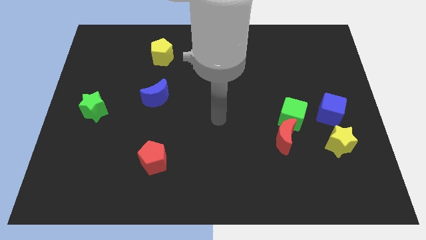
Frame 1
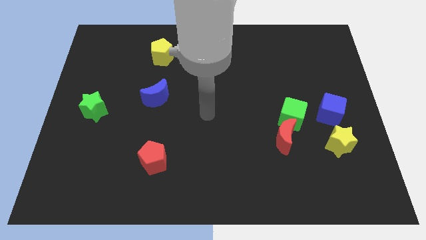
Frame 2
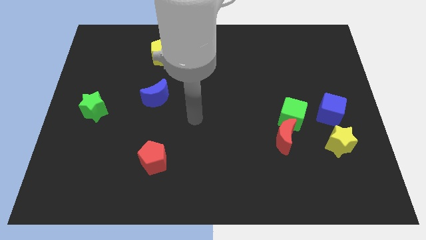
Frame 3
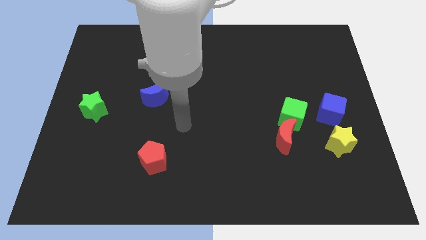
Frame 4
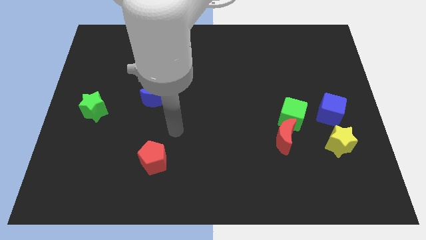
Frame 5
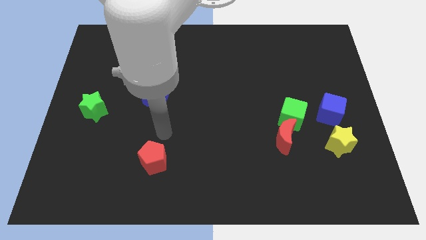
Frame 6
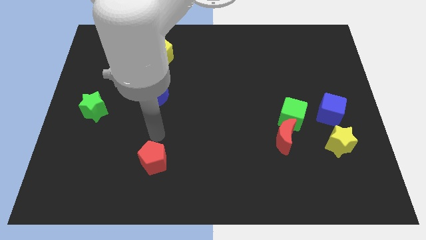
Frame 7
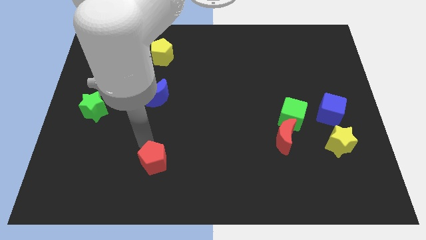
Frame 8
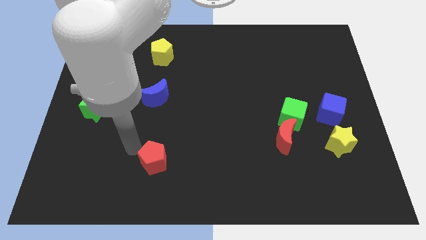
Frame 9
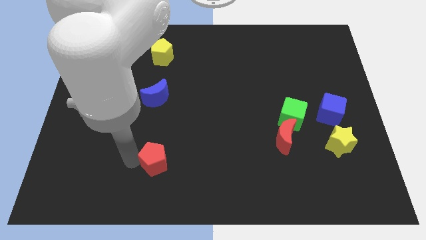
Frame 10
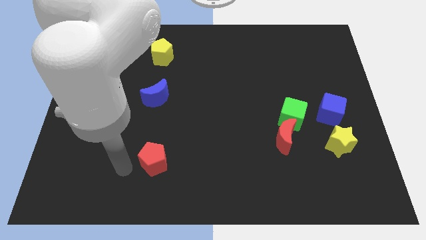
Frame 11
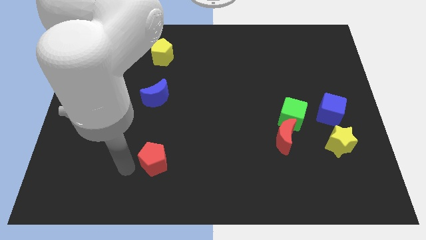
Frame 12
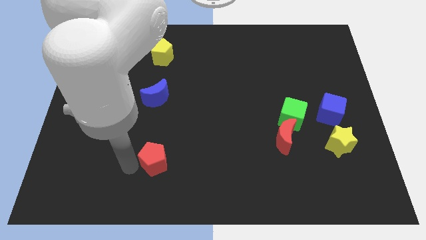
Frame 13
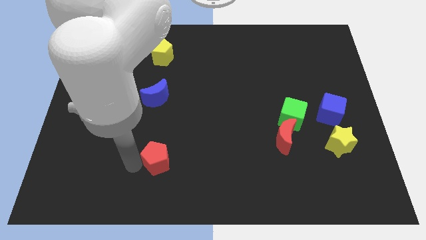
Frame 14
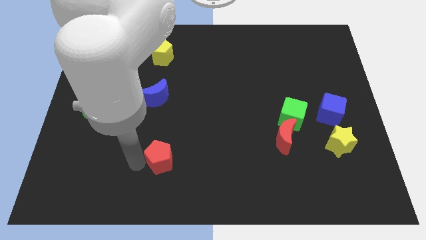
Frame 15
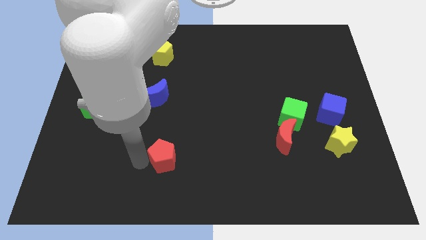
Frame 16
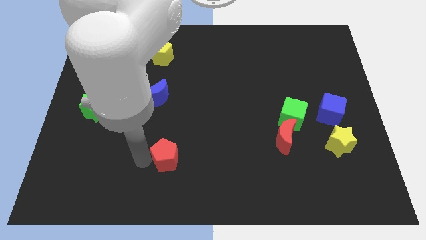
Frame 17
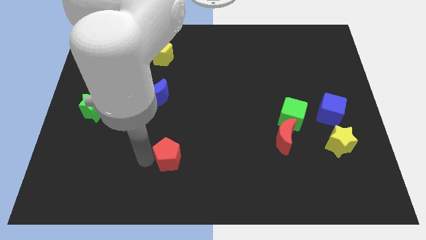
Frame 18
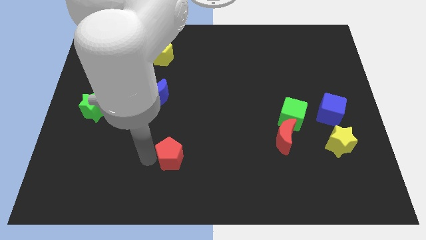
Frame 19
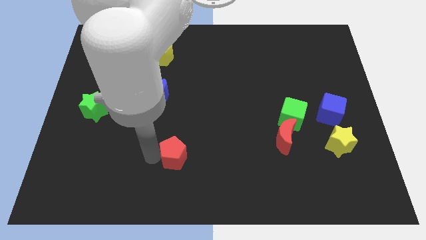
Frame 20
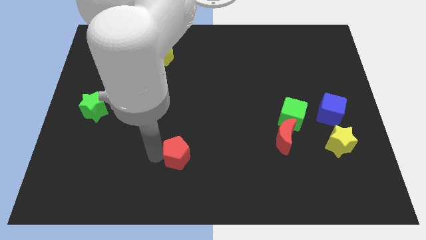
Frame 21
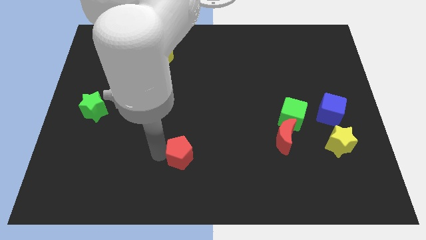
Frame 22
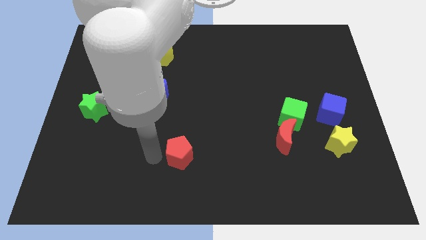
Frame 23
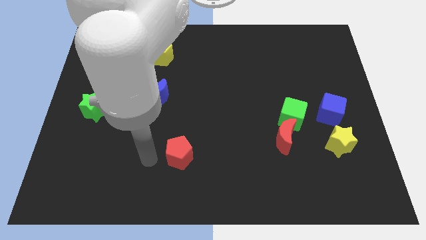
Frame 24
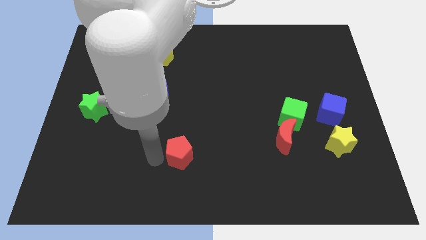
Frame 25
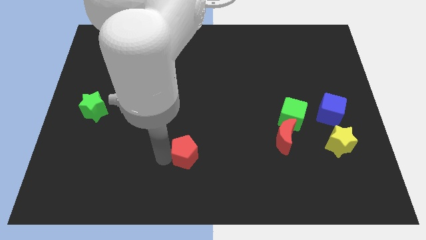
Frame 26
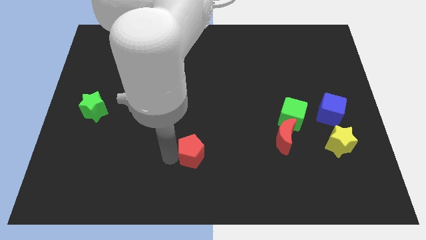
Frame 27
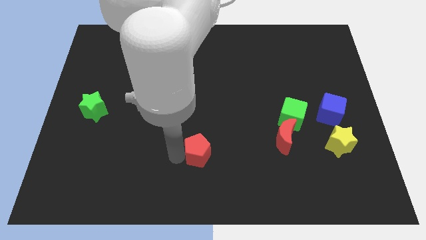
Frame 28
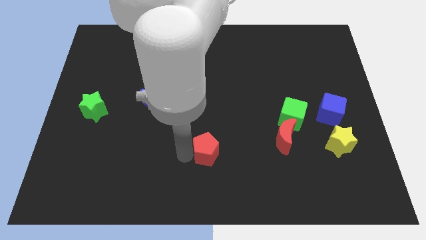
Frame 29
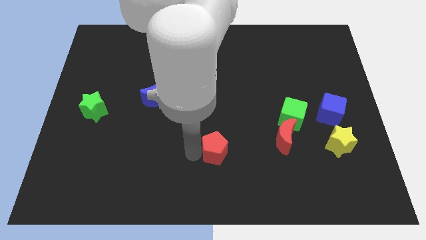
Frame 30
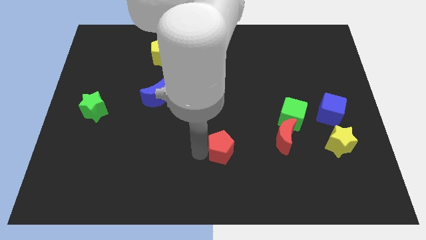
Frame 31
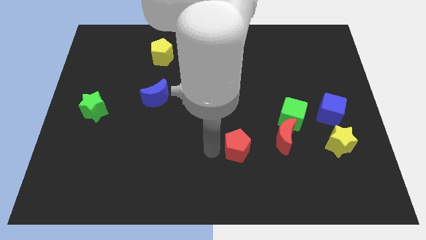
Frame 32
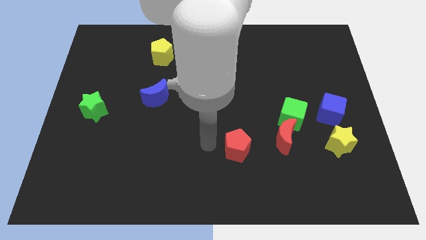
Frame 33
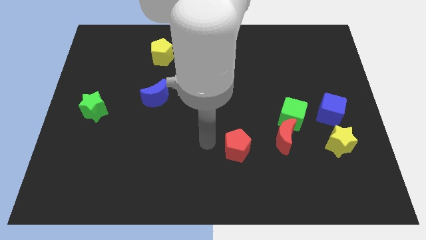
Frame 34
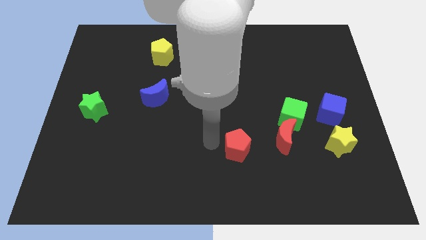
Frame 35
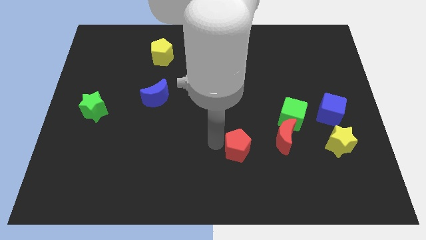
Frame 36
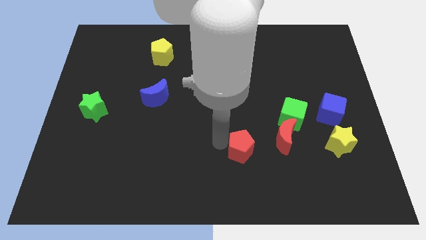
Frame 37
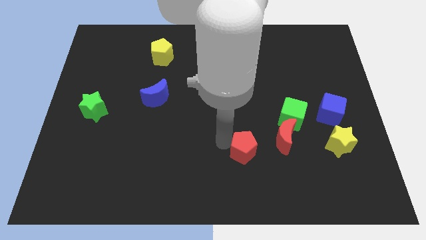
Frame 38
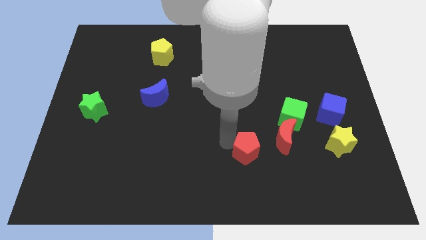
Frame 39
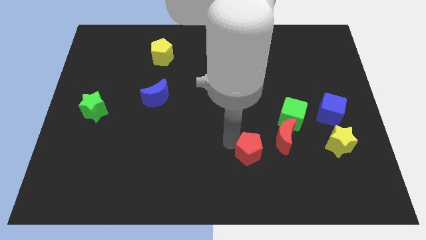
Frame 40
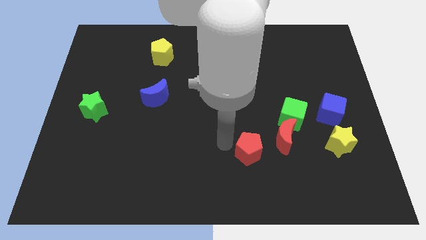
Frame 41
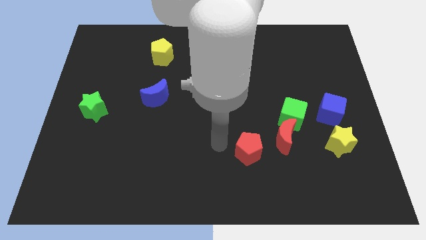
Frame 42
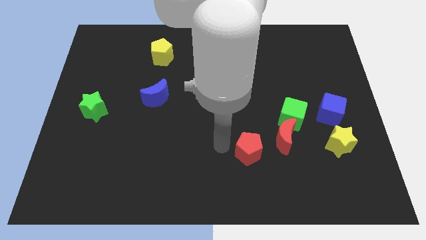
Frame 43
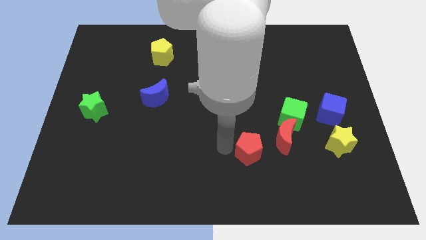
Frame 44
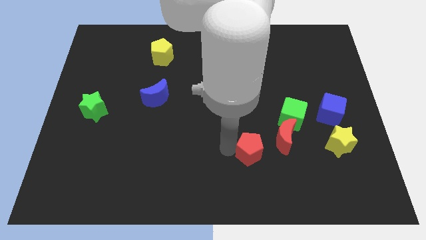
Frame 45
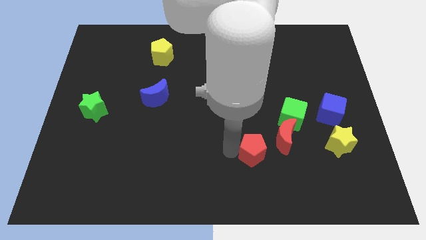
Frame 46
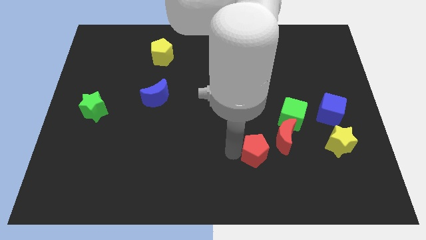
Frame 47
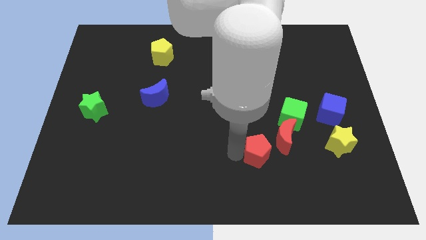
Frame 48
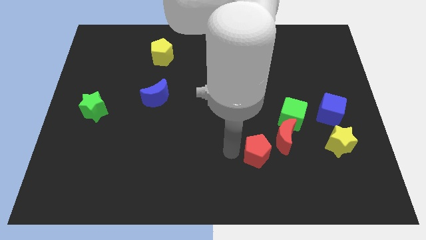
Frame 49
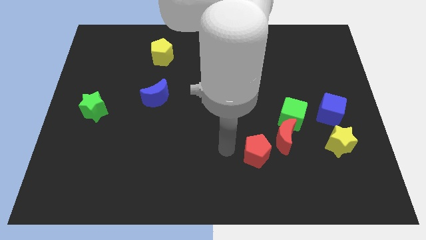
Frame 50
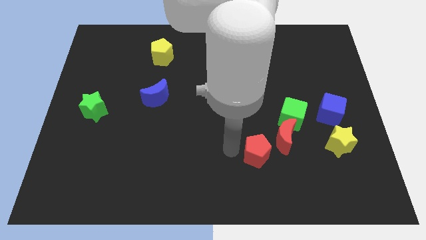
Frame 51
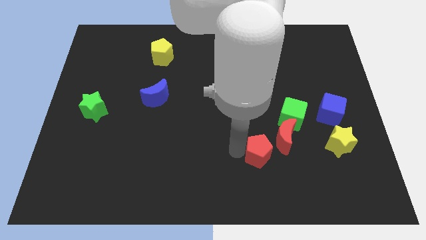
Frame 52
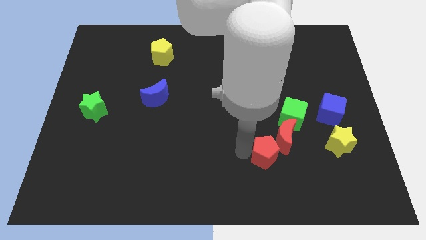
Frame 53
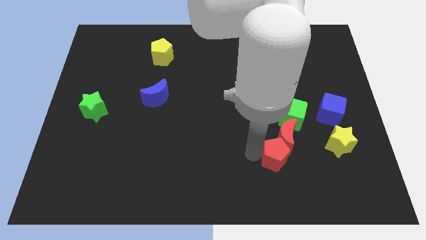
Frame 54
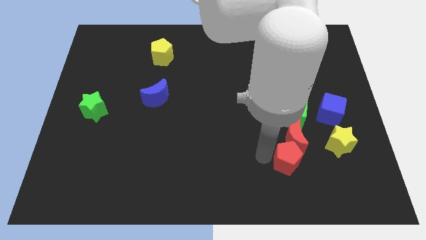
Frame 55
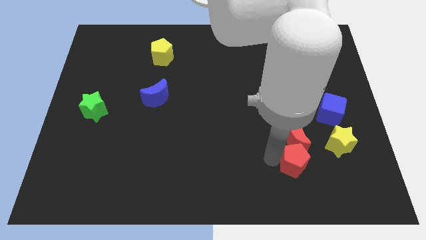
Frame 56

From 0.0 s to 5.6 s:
push the red pentagon to the bottom right of the red moon

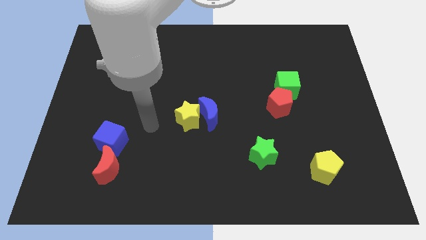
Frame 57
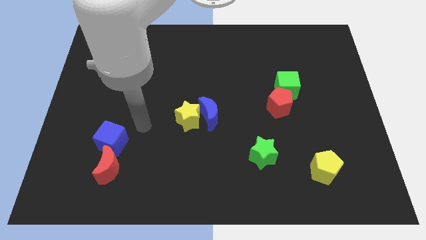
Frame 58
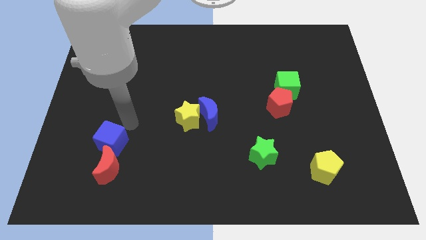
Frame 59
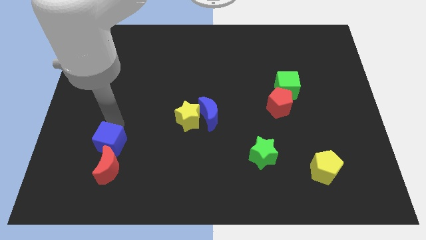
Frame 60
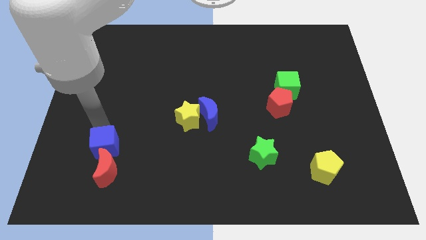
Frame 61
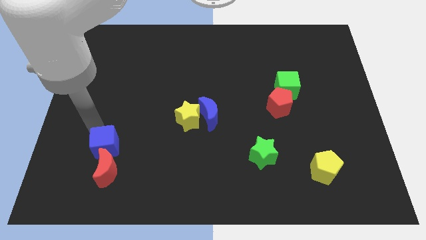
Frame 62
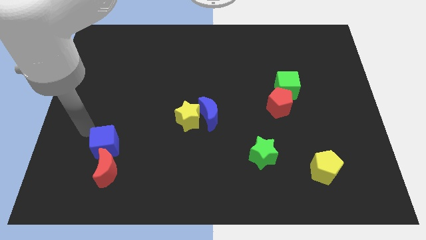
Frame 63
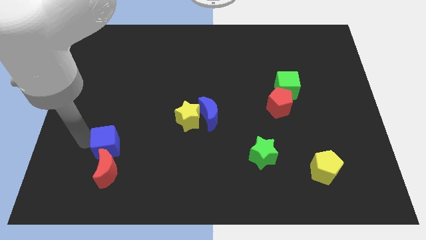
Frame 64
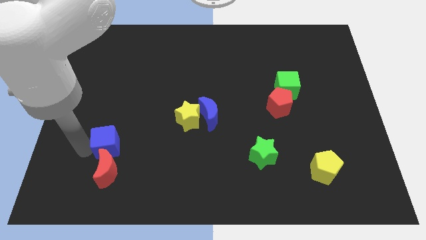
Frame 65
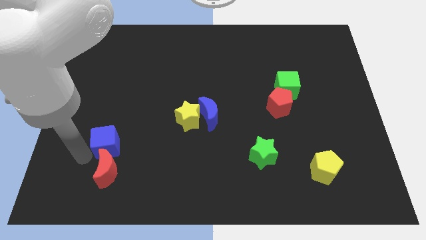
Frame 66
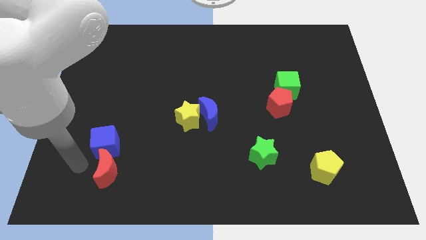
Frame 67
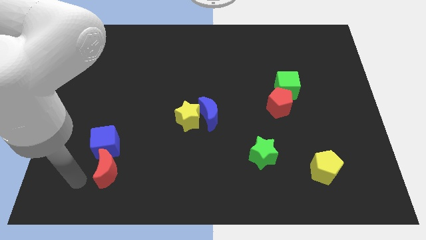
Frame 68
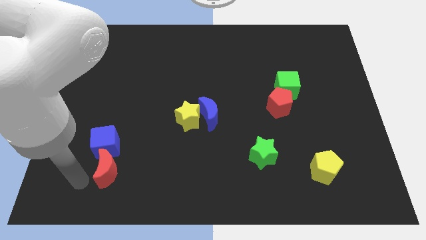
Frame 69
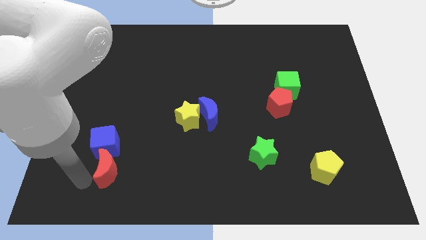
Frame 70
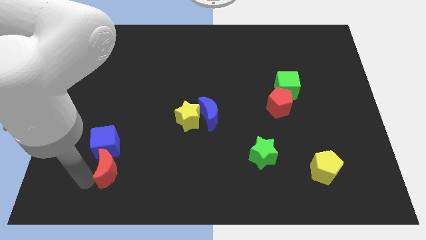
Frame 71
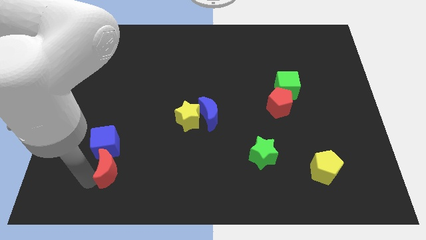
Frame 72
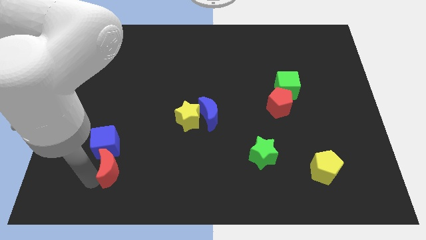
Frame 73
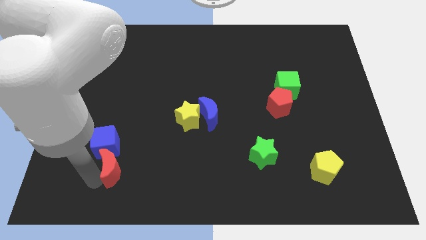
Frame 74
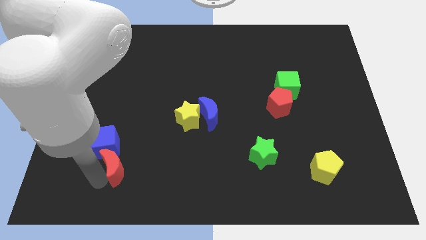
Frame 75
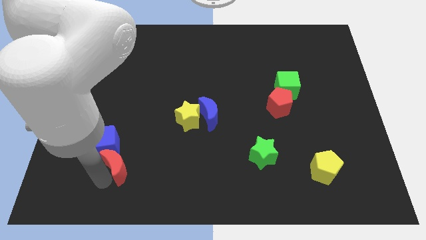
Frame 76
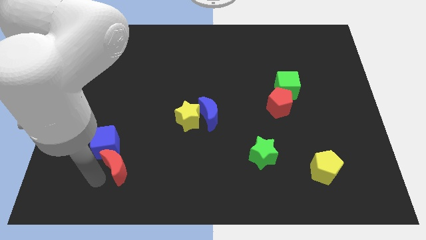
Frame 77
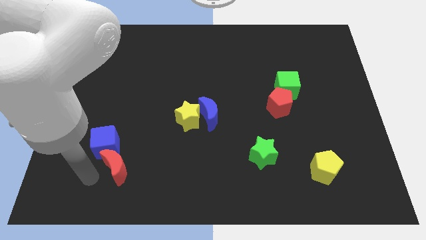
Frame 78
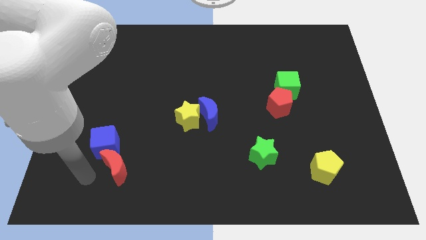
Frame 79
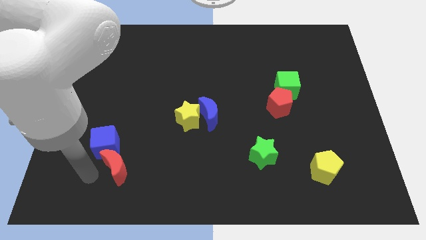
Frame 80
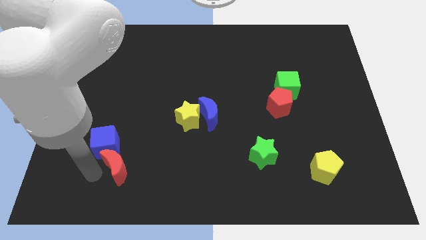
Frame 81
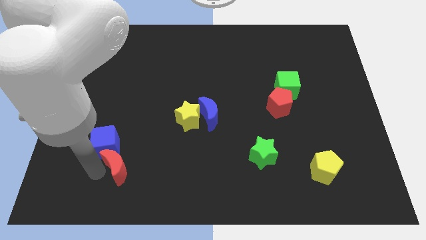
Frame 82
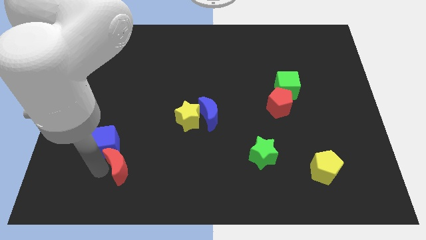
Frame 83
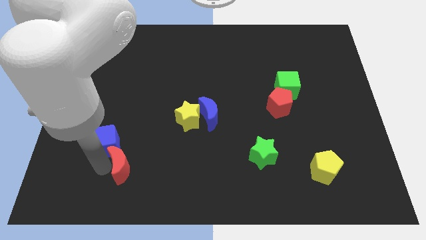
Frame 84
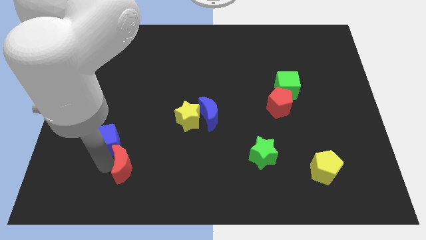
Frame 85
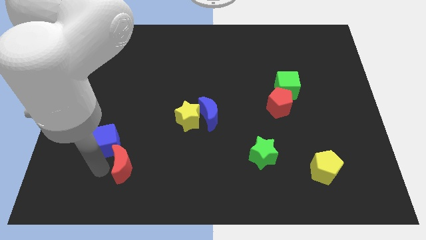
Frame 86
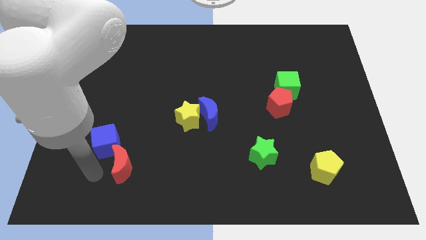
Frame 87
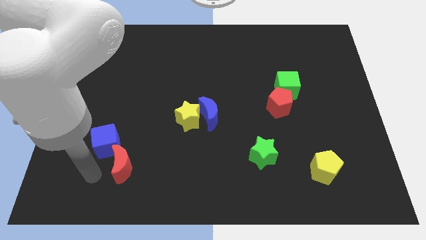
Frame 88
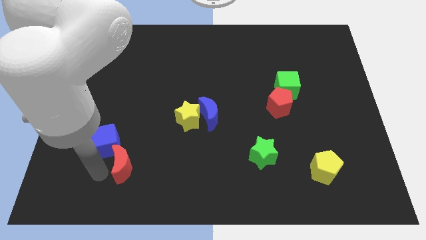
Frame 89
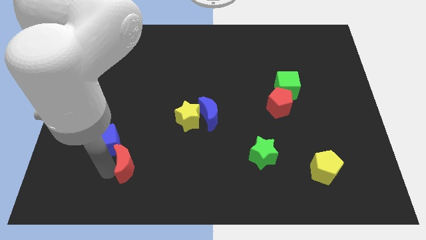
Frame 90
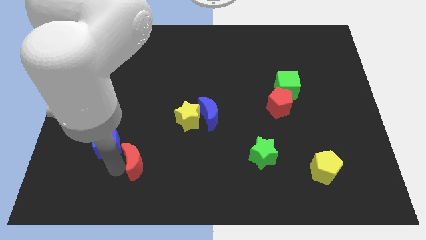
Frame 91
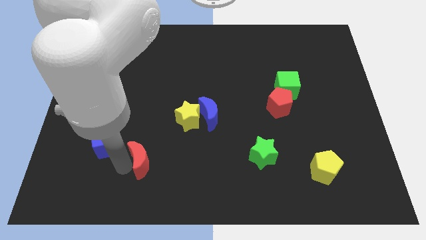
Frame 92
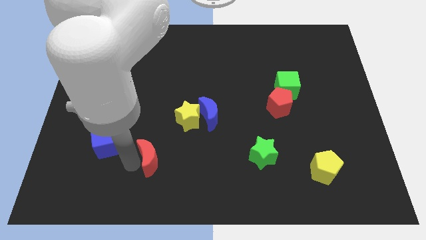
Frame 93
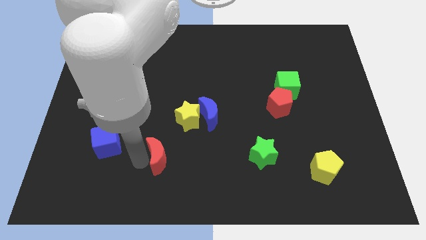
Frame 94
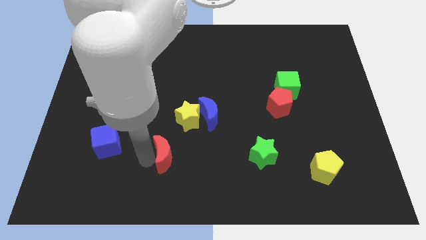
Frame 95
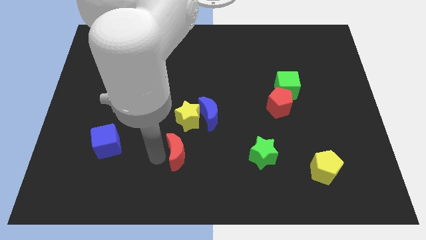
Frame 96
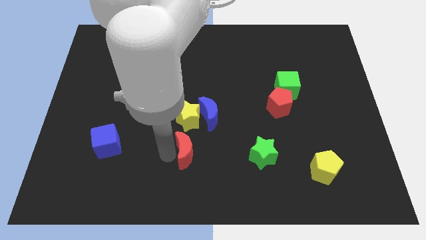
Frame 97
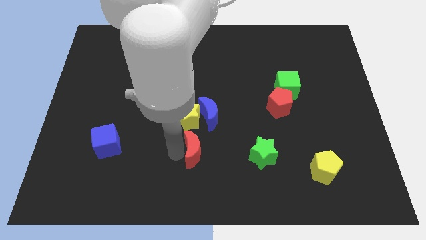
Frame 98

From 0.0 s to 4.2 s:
push the red moon to the left of the green star
